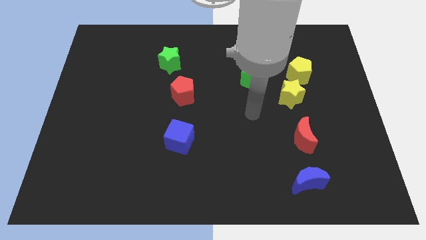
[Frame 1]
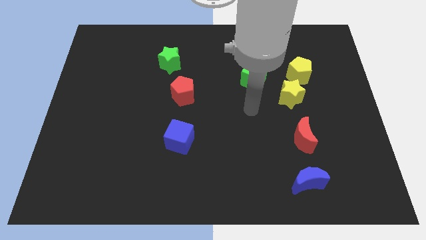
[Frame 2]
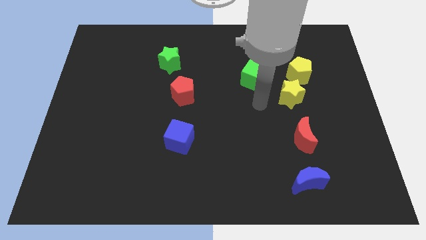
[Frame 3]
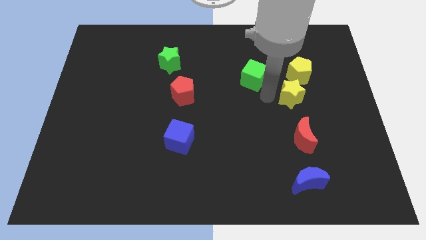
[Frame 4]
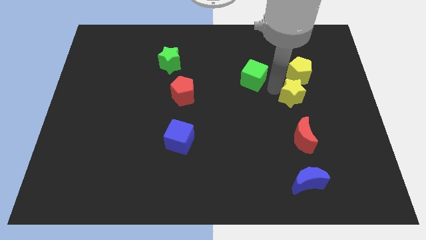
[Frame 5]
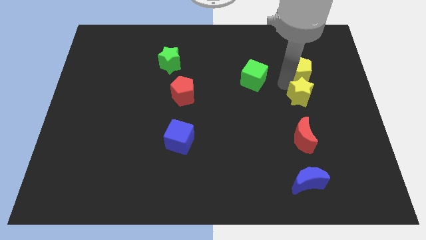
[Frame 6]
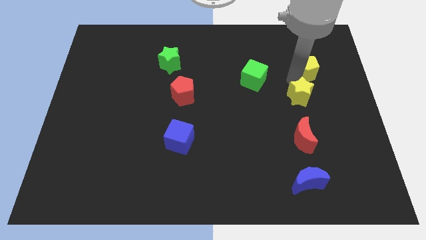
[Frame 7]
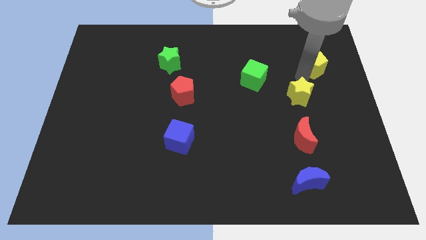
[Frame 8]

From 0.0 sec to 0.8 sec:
pull the yellow star apart from the yellow pentagon

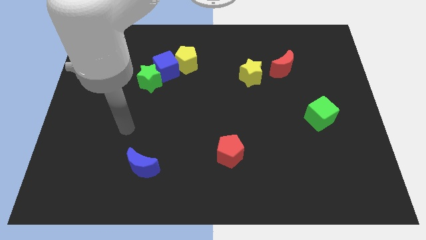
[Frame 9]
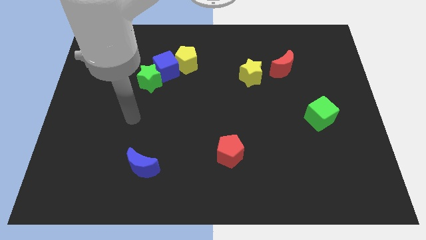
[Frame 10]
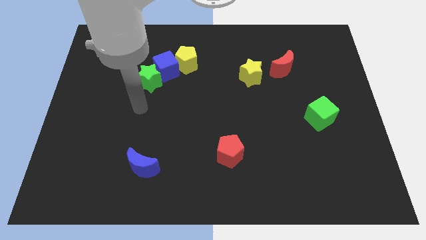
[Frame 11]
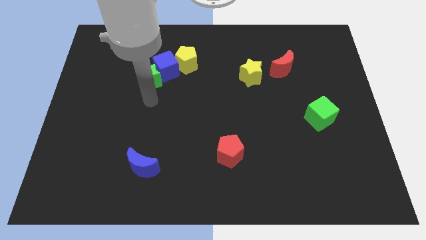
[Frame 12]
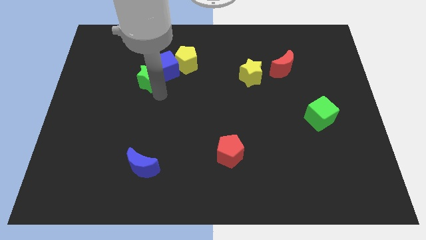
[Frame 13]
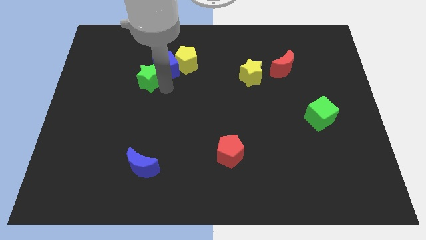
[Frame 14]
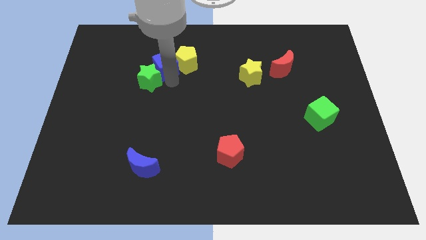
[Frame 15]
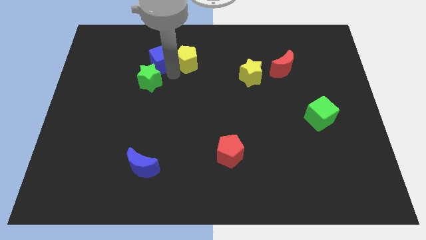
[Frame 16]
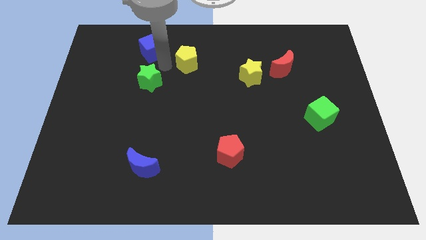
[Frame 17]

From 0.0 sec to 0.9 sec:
move the green star away from the blue cube

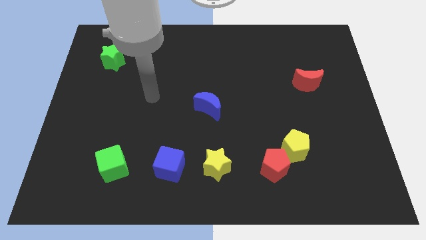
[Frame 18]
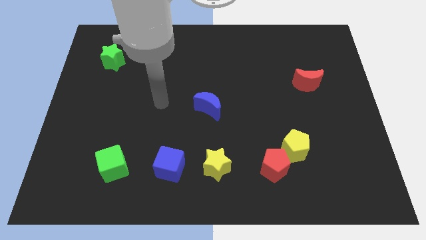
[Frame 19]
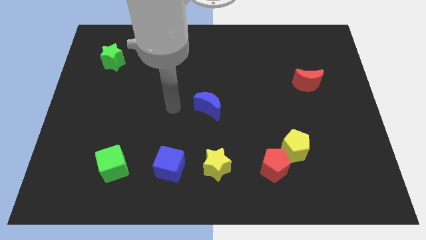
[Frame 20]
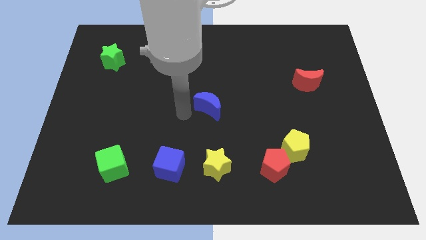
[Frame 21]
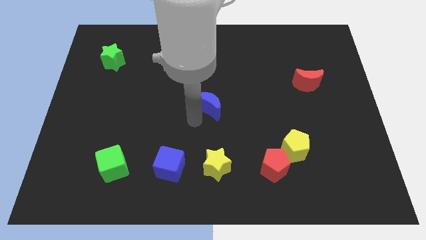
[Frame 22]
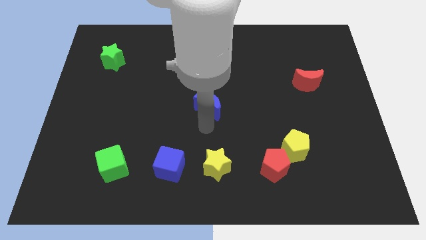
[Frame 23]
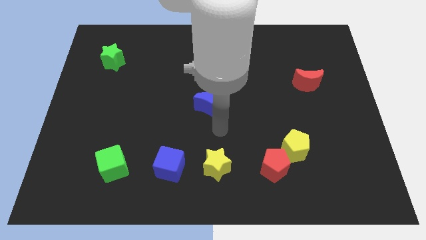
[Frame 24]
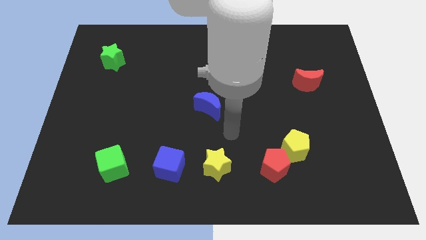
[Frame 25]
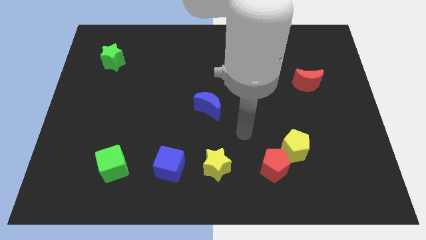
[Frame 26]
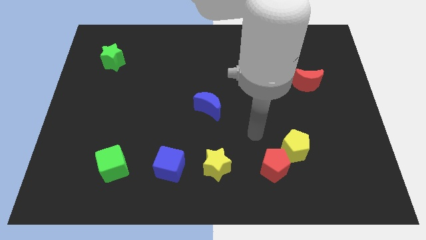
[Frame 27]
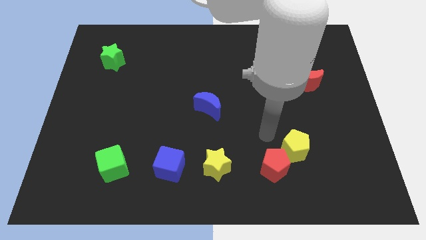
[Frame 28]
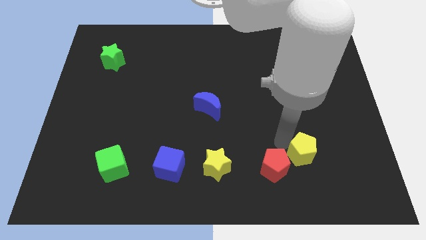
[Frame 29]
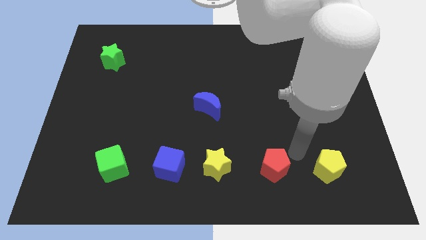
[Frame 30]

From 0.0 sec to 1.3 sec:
pull the red pentagon apart from the yellow pentagon

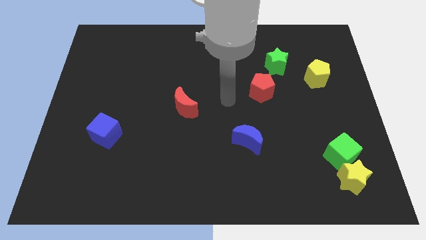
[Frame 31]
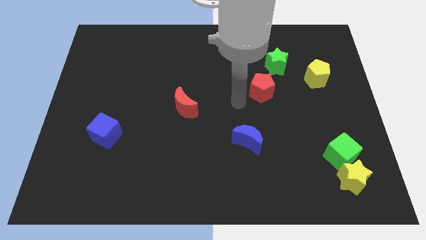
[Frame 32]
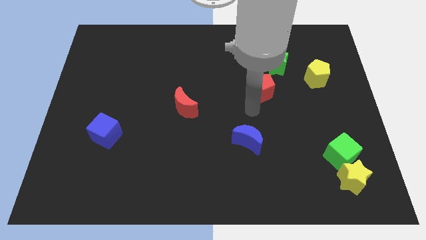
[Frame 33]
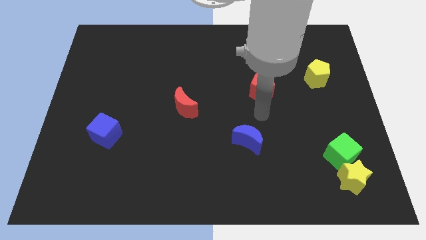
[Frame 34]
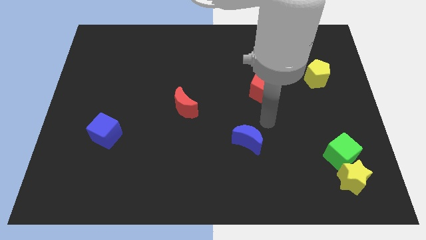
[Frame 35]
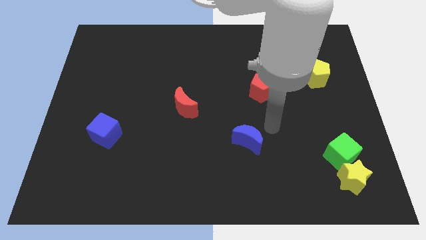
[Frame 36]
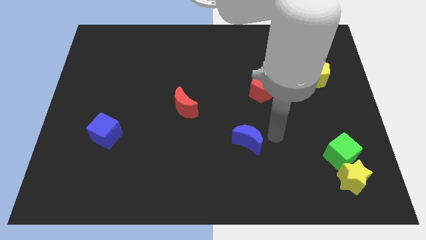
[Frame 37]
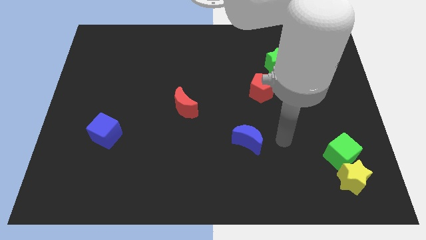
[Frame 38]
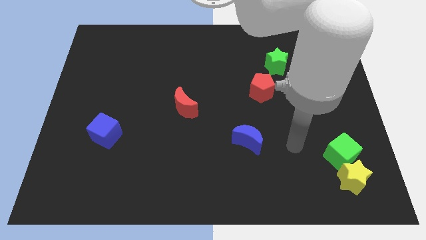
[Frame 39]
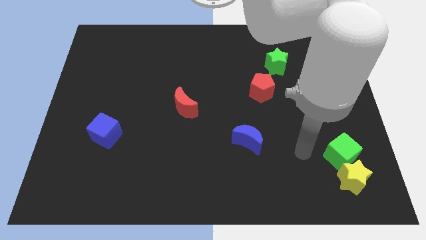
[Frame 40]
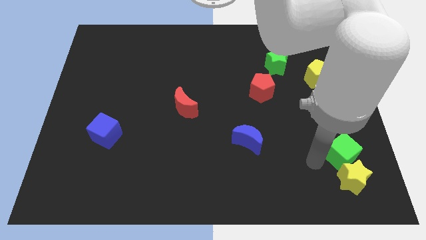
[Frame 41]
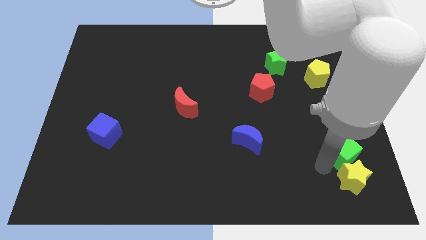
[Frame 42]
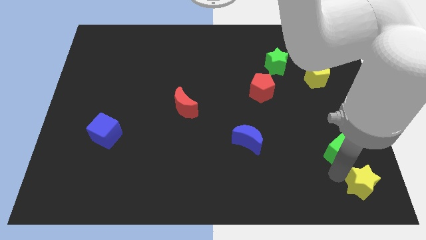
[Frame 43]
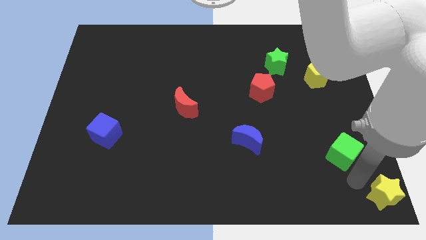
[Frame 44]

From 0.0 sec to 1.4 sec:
separate the green cube from the yellow star

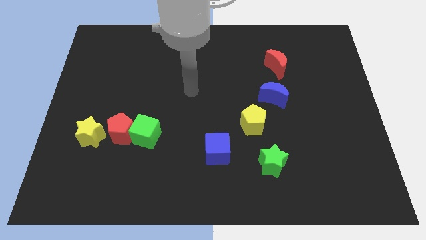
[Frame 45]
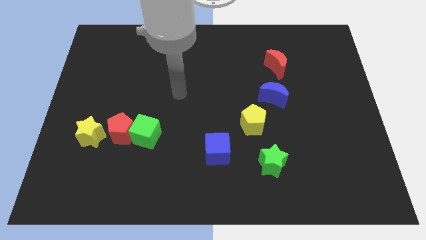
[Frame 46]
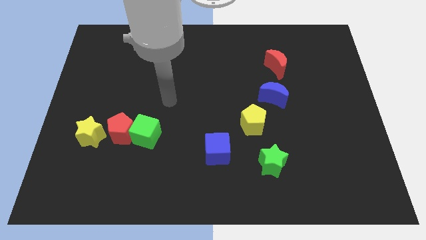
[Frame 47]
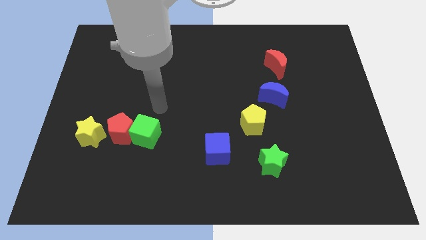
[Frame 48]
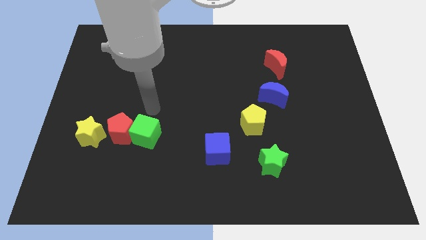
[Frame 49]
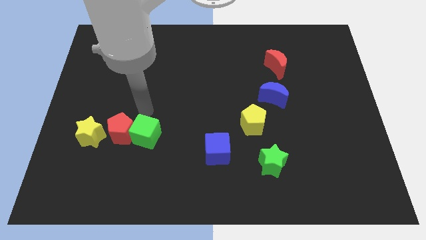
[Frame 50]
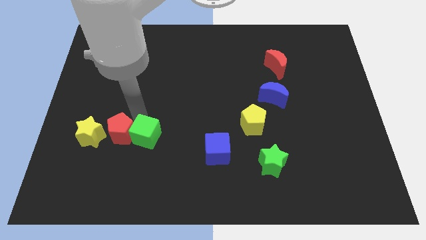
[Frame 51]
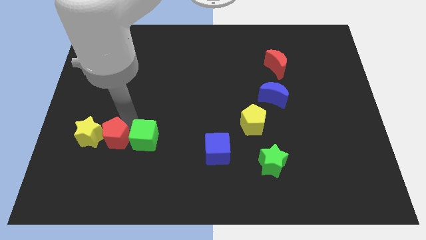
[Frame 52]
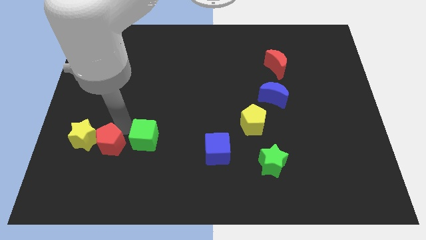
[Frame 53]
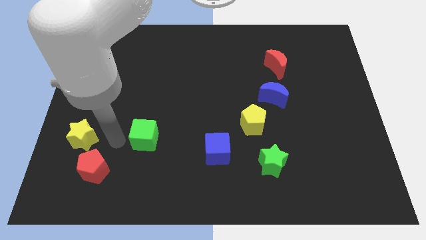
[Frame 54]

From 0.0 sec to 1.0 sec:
pull the green cube apart from the red pentagon

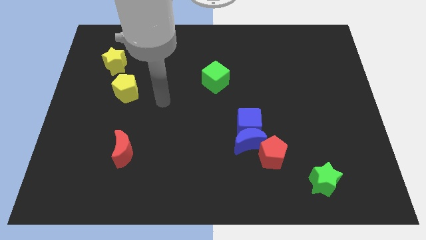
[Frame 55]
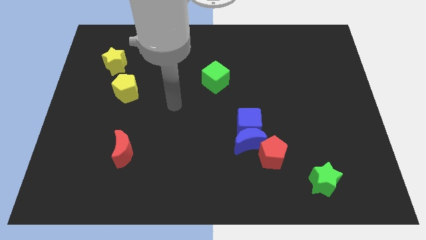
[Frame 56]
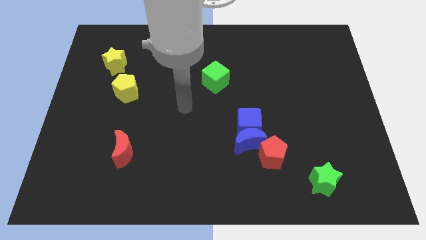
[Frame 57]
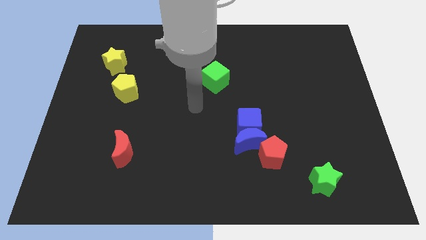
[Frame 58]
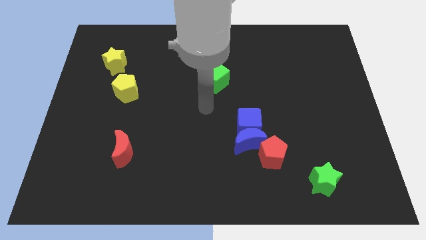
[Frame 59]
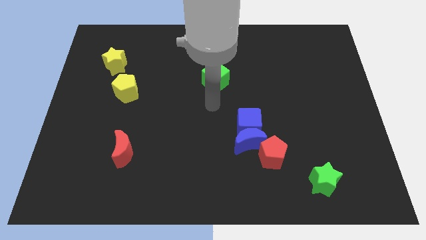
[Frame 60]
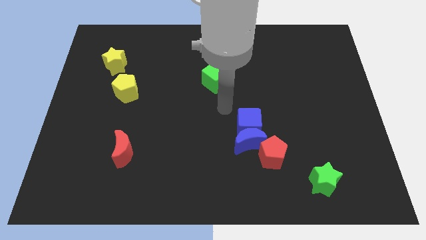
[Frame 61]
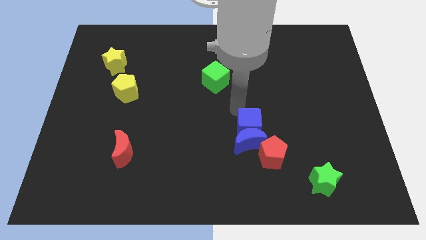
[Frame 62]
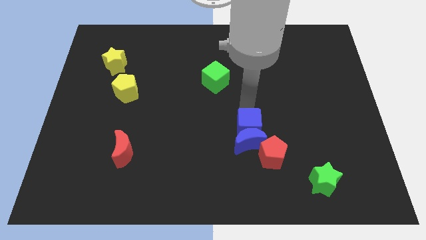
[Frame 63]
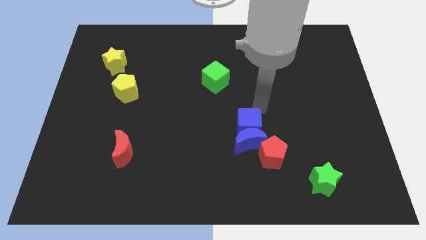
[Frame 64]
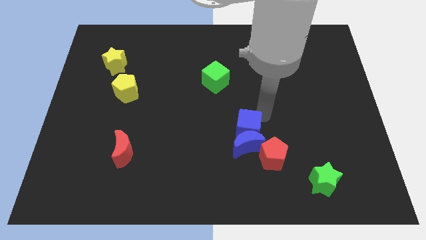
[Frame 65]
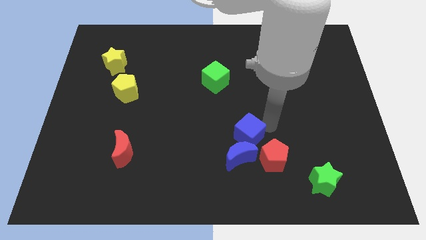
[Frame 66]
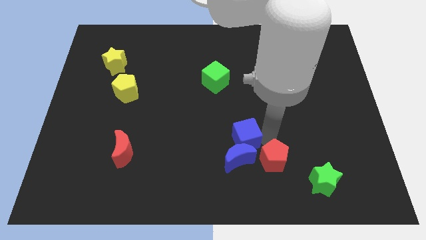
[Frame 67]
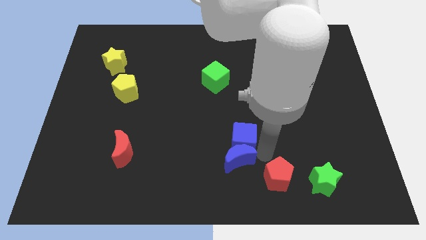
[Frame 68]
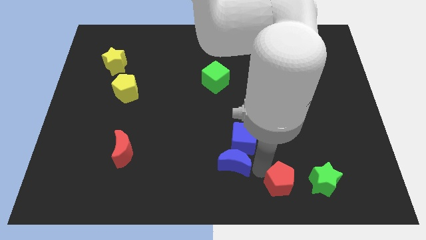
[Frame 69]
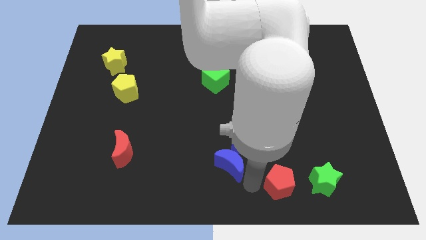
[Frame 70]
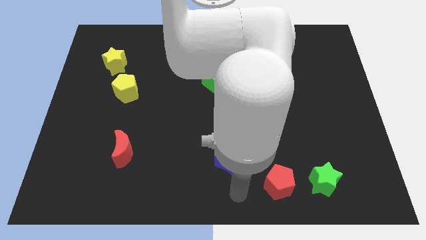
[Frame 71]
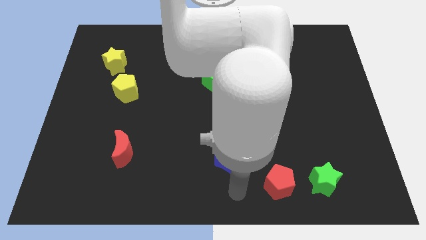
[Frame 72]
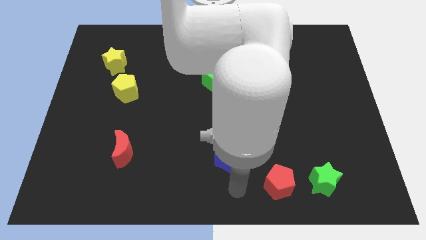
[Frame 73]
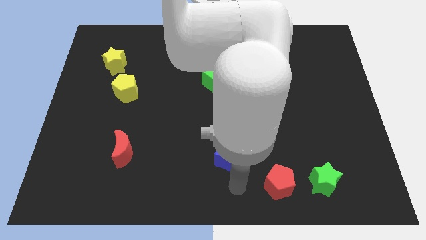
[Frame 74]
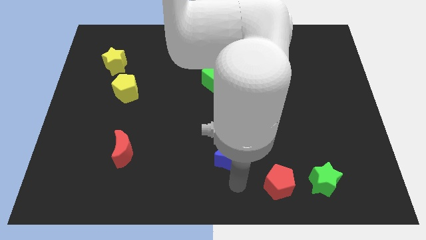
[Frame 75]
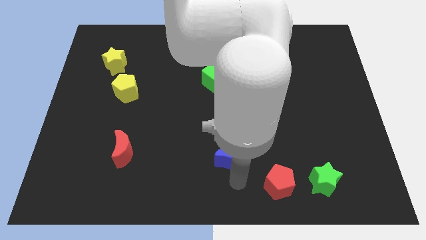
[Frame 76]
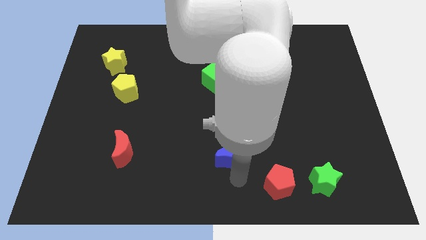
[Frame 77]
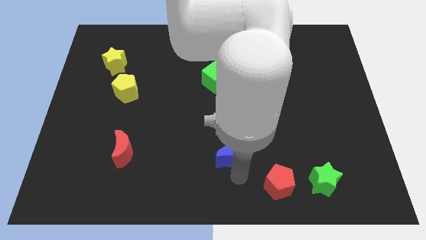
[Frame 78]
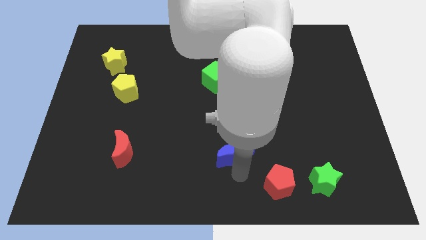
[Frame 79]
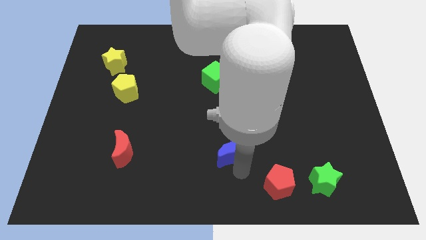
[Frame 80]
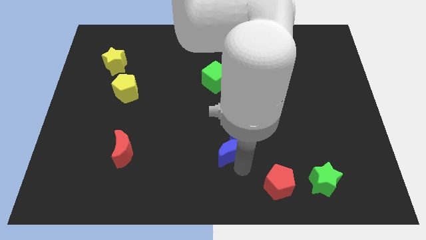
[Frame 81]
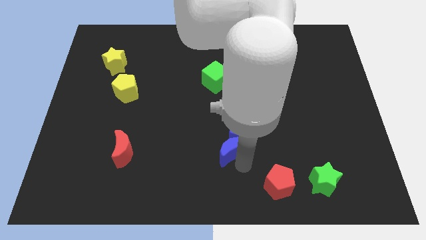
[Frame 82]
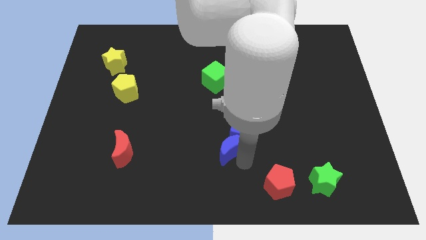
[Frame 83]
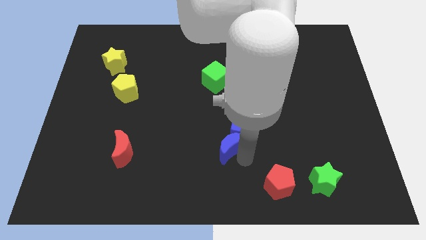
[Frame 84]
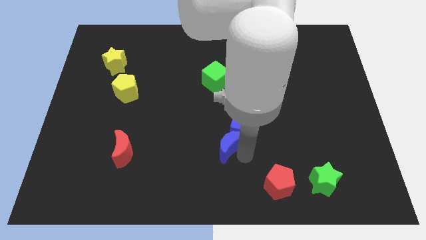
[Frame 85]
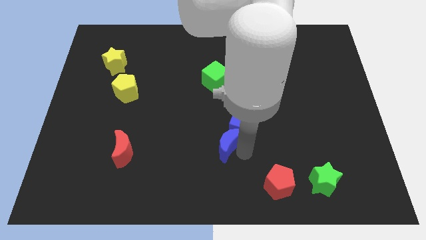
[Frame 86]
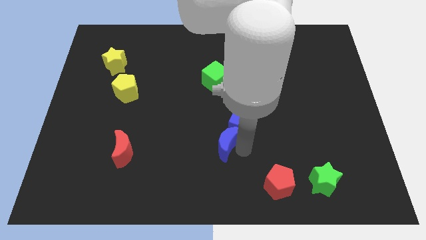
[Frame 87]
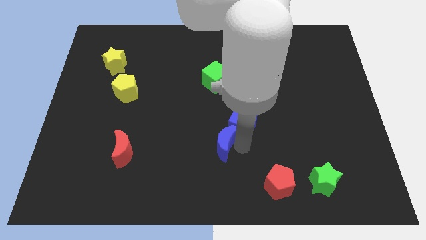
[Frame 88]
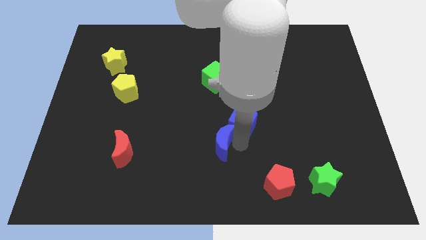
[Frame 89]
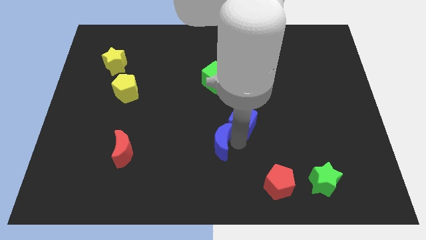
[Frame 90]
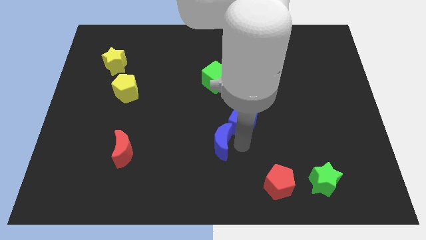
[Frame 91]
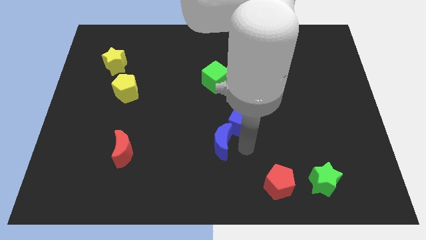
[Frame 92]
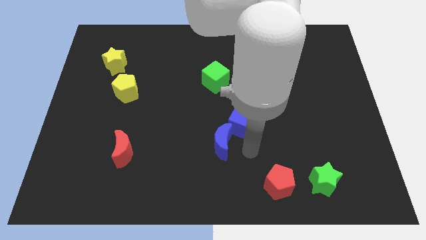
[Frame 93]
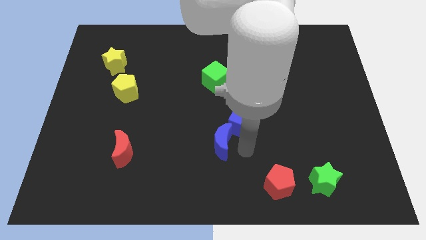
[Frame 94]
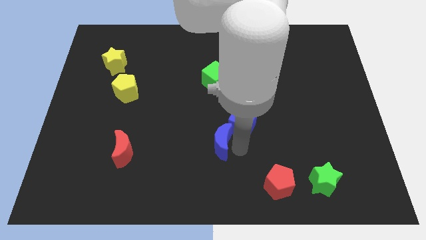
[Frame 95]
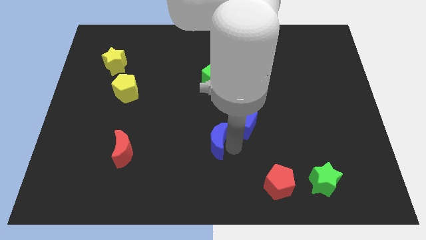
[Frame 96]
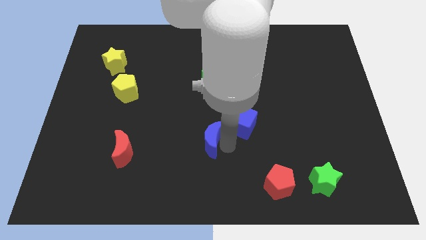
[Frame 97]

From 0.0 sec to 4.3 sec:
pull the blue moon apart from the blue cube and red pentagon
